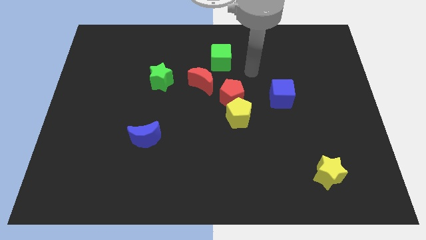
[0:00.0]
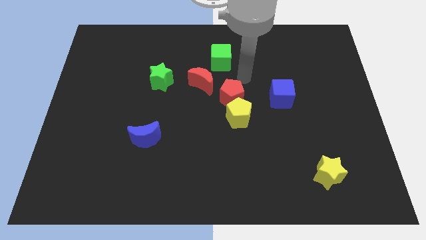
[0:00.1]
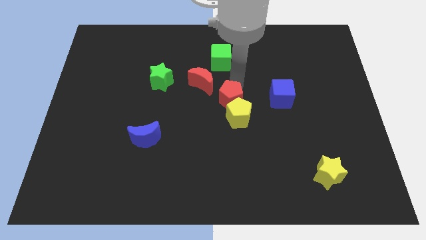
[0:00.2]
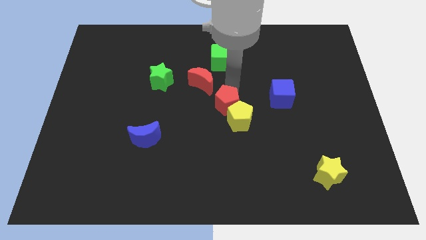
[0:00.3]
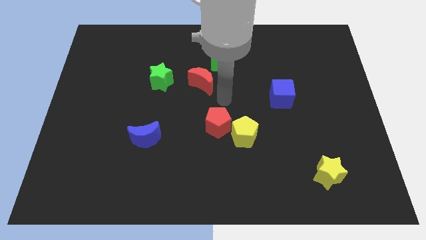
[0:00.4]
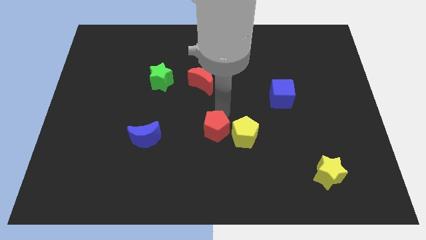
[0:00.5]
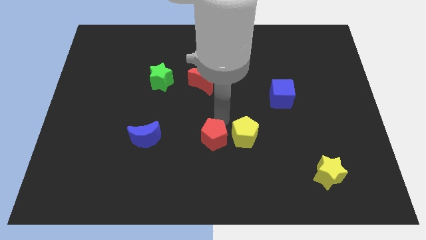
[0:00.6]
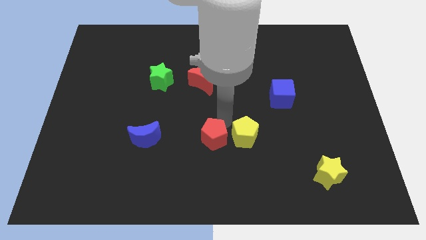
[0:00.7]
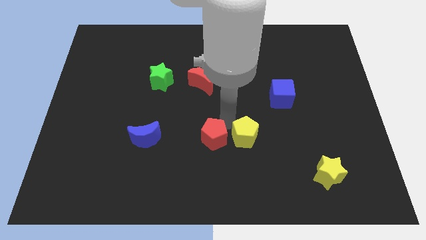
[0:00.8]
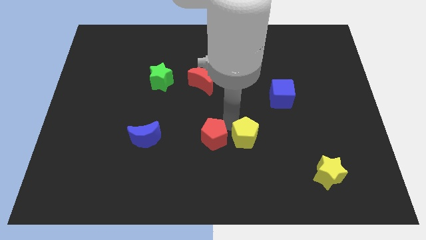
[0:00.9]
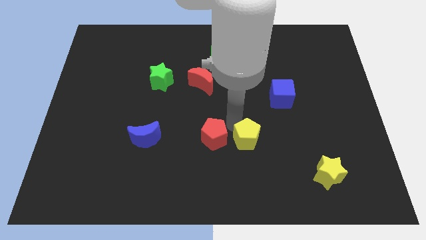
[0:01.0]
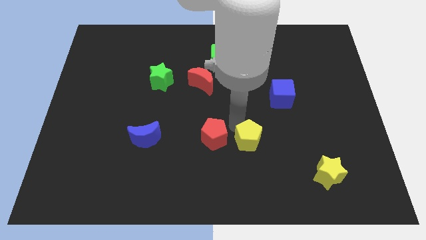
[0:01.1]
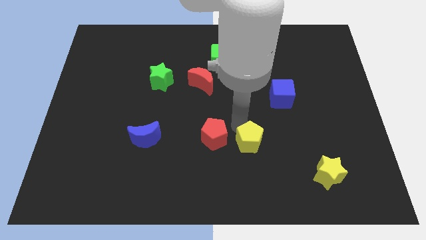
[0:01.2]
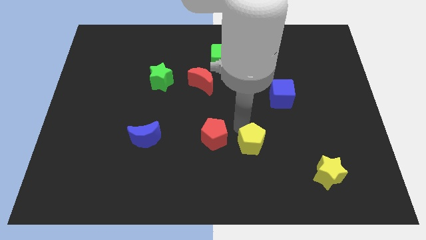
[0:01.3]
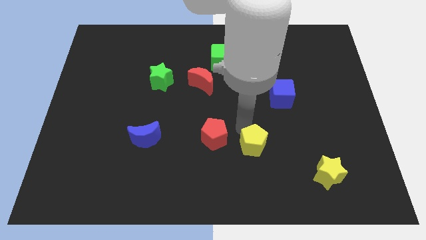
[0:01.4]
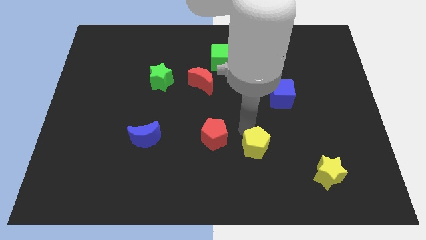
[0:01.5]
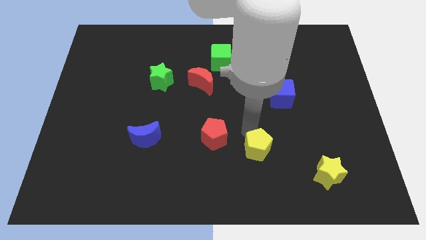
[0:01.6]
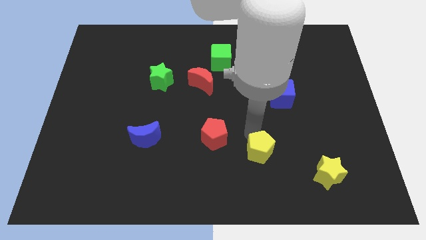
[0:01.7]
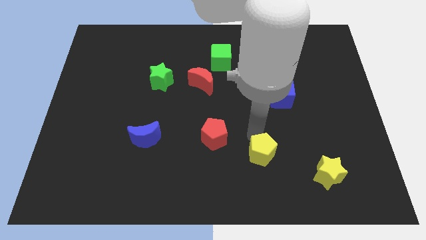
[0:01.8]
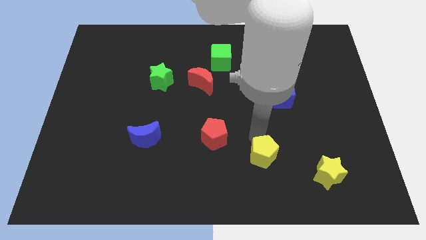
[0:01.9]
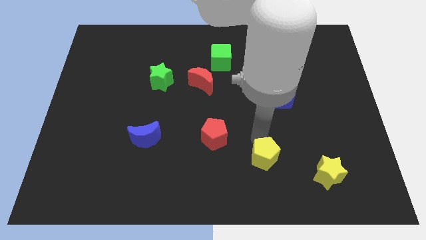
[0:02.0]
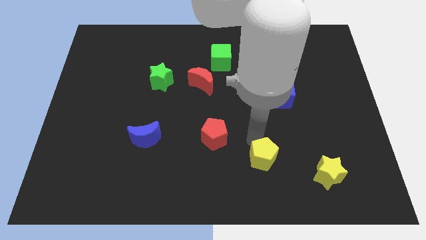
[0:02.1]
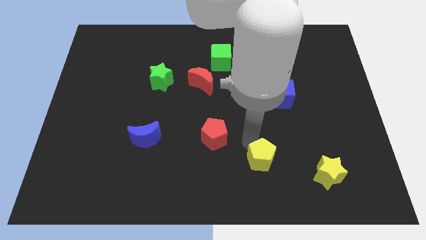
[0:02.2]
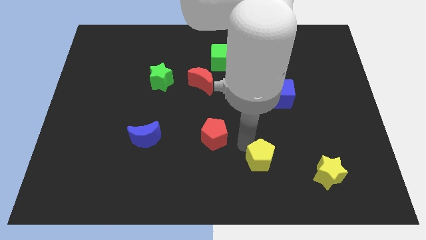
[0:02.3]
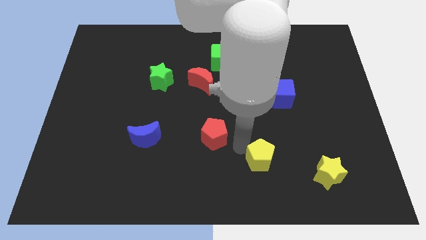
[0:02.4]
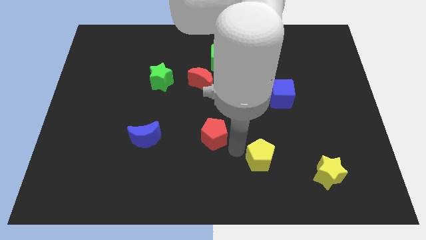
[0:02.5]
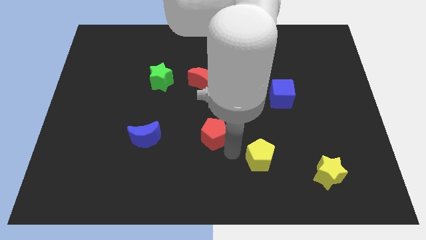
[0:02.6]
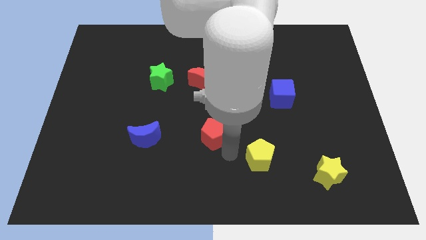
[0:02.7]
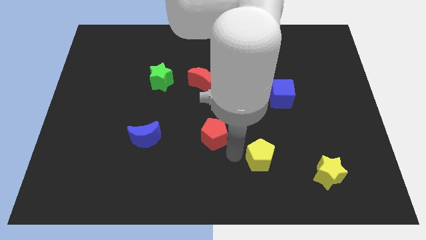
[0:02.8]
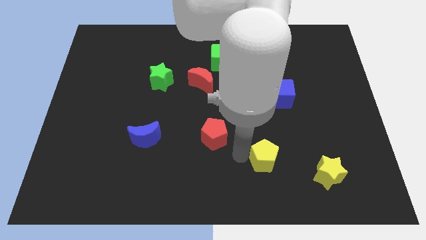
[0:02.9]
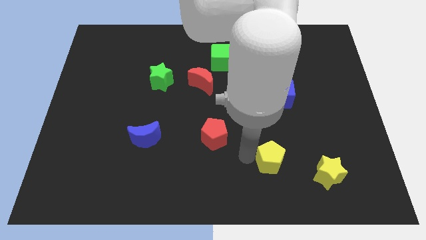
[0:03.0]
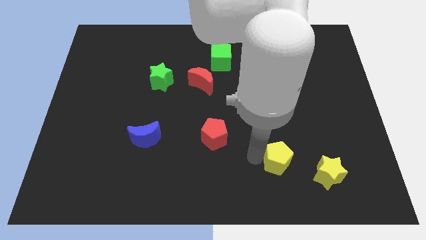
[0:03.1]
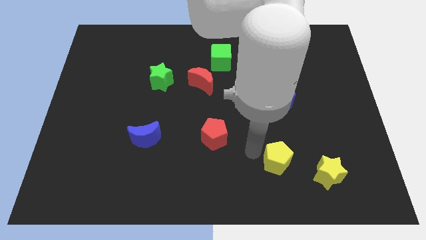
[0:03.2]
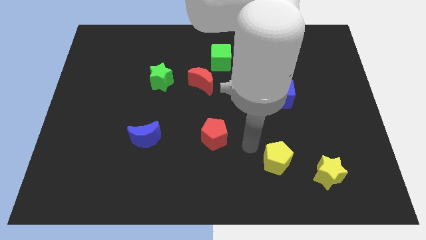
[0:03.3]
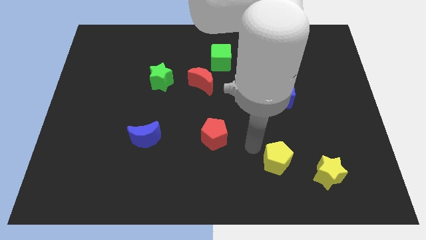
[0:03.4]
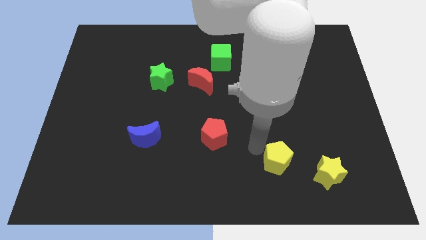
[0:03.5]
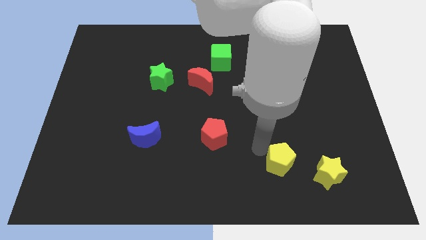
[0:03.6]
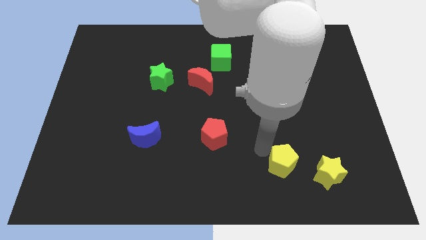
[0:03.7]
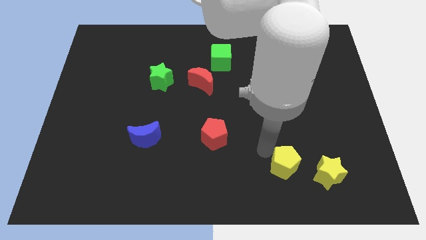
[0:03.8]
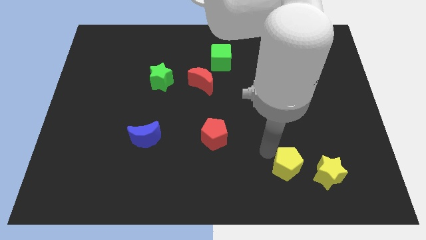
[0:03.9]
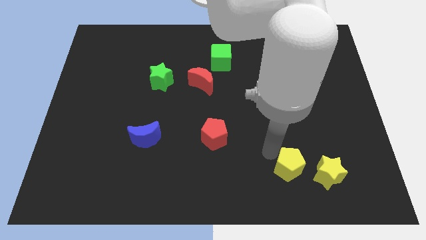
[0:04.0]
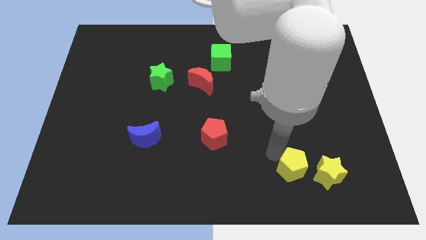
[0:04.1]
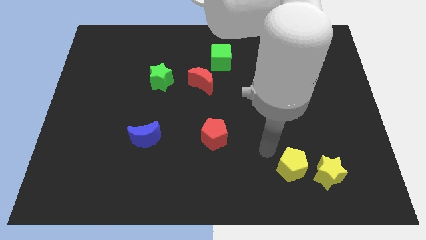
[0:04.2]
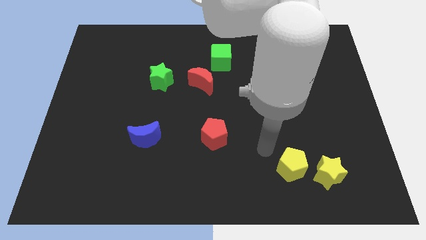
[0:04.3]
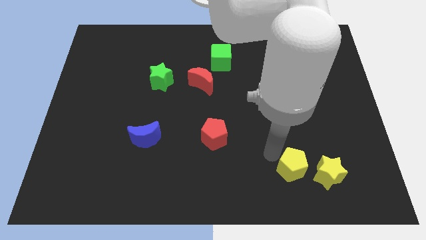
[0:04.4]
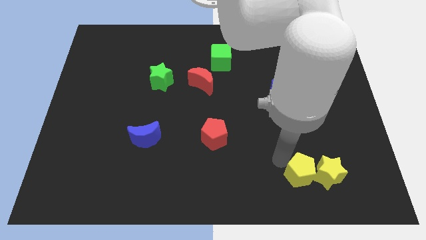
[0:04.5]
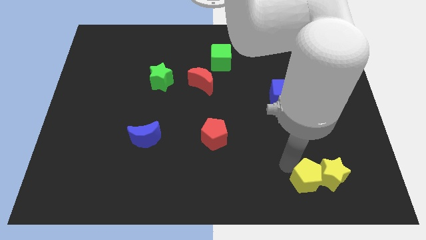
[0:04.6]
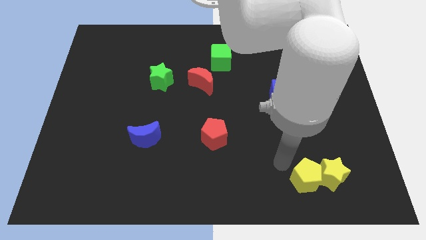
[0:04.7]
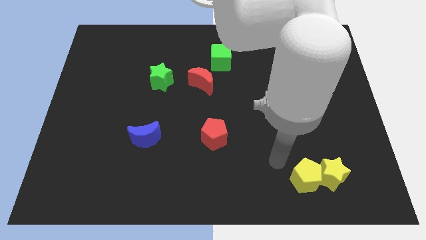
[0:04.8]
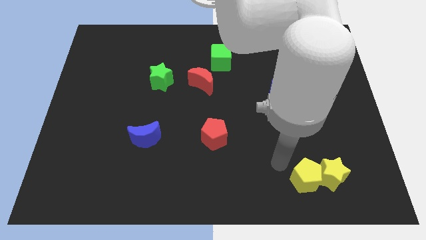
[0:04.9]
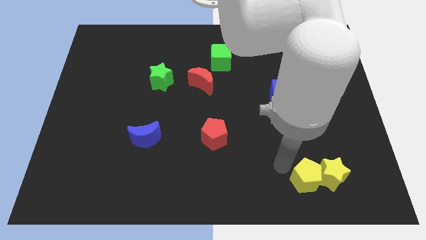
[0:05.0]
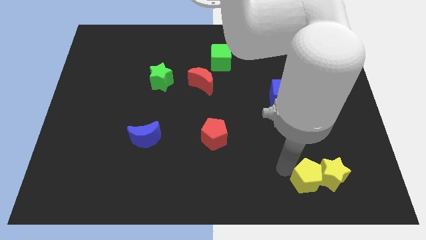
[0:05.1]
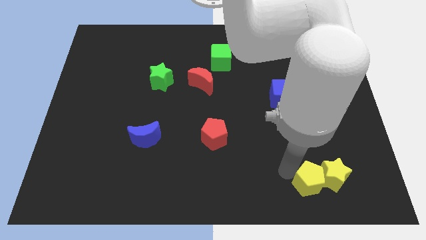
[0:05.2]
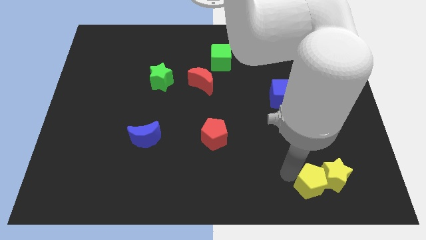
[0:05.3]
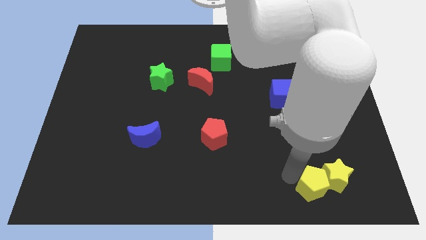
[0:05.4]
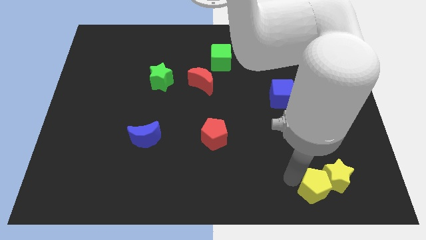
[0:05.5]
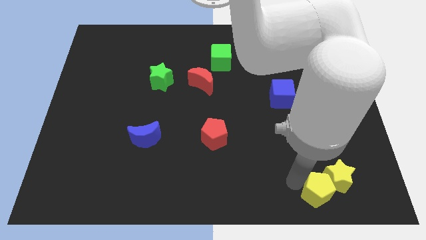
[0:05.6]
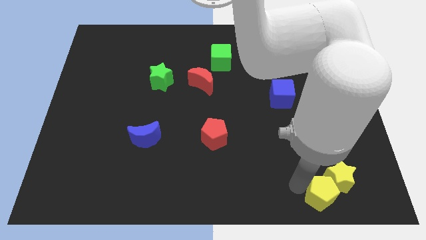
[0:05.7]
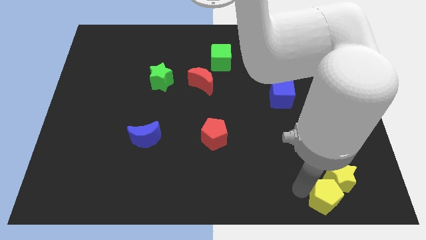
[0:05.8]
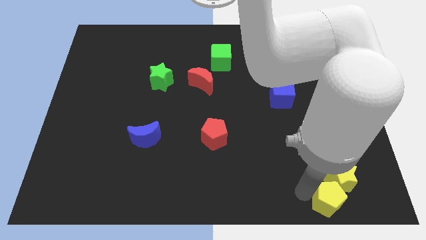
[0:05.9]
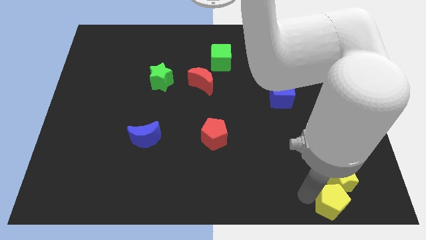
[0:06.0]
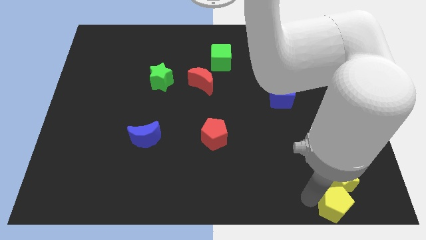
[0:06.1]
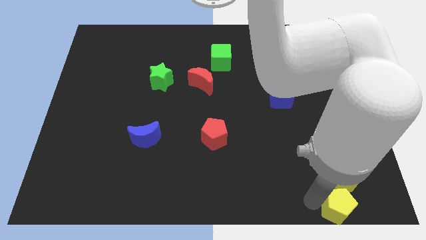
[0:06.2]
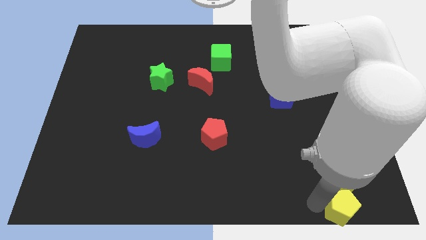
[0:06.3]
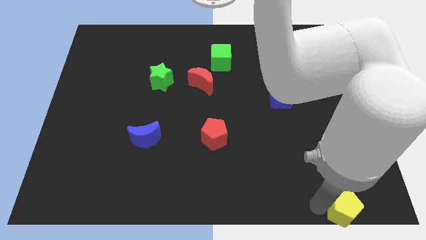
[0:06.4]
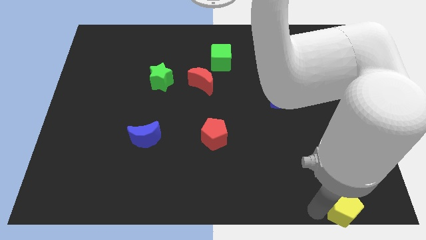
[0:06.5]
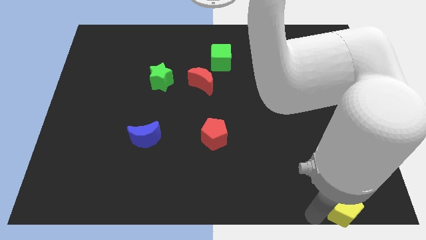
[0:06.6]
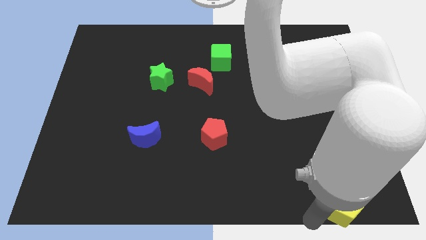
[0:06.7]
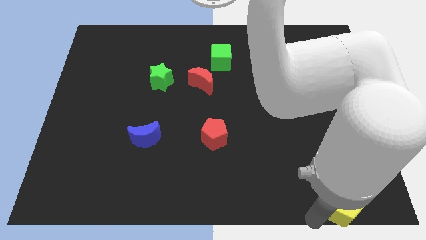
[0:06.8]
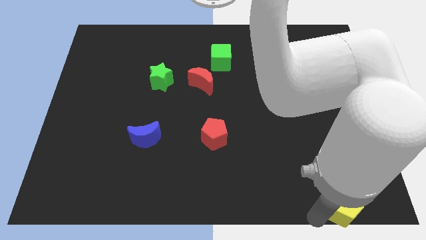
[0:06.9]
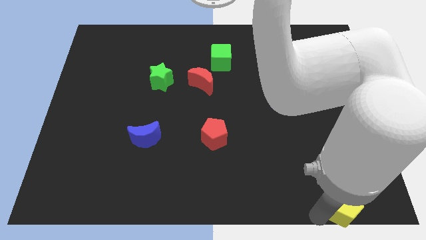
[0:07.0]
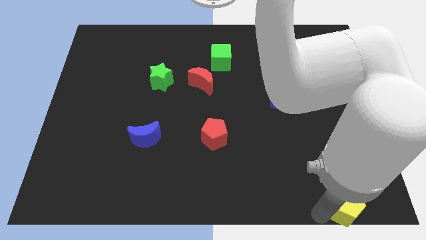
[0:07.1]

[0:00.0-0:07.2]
put the yellow pentagon to the bottom right
